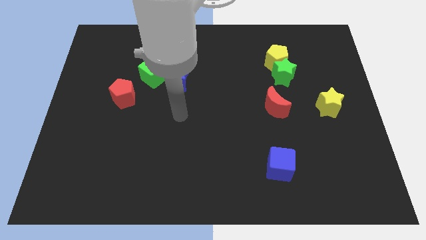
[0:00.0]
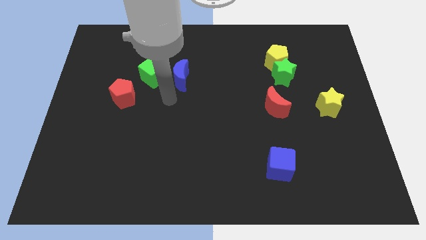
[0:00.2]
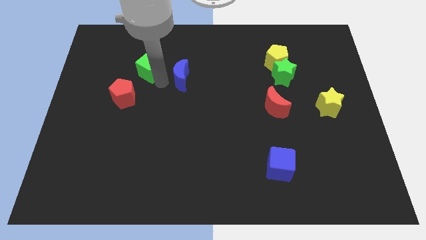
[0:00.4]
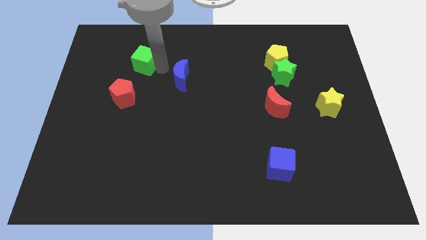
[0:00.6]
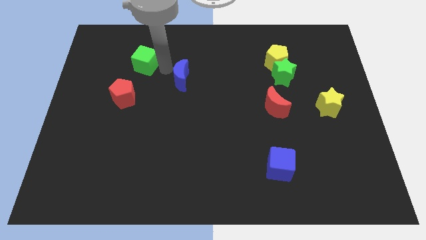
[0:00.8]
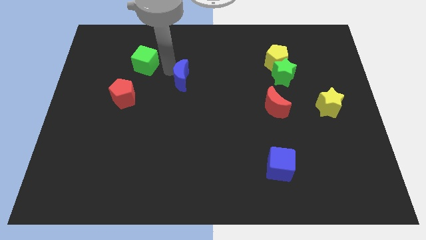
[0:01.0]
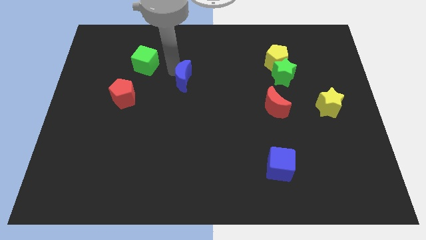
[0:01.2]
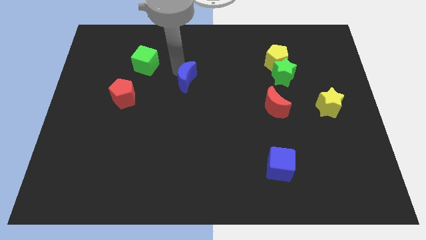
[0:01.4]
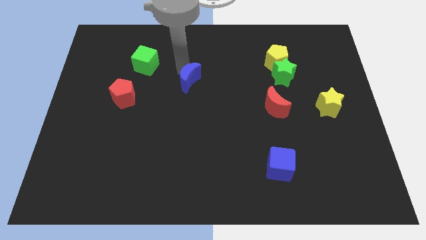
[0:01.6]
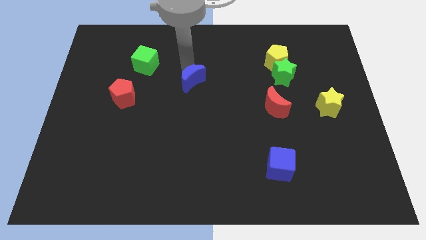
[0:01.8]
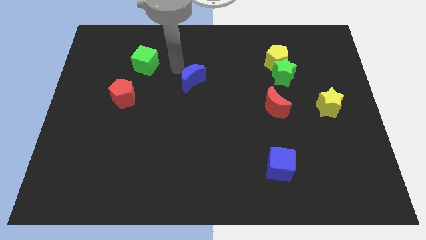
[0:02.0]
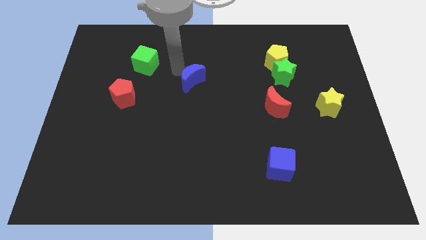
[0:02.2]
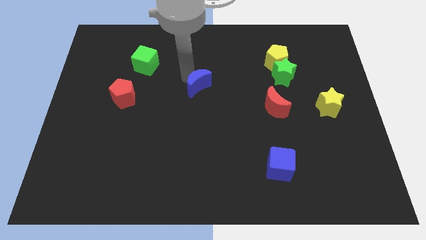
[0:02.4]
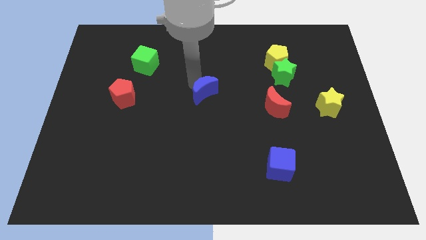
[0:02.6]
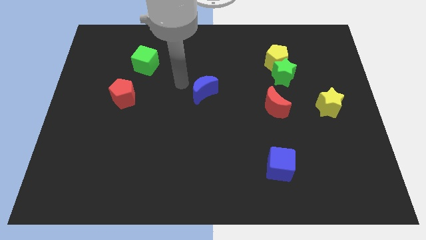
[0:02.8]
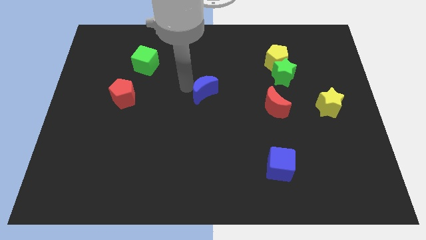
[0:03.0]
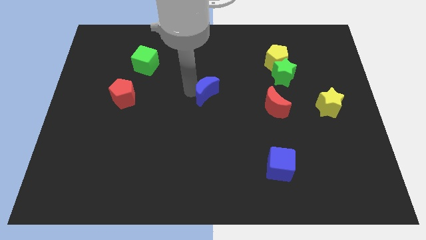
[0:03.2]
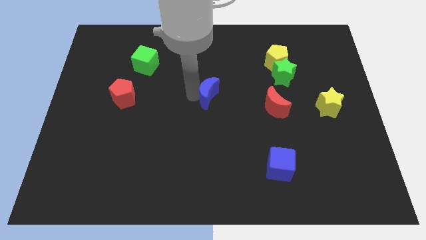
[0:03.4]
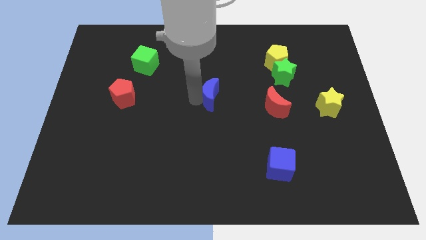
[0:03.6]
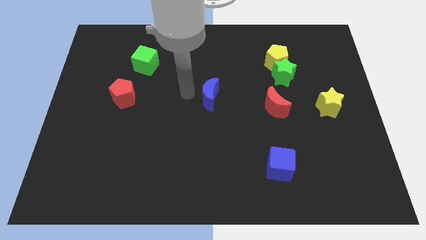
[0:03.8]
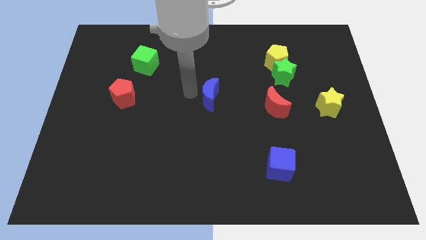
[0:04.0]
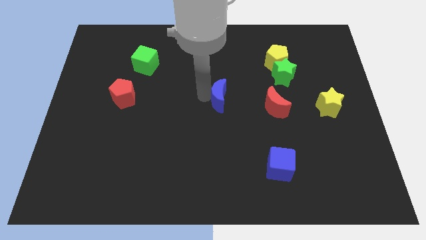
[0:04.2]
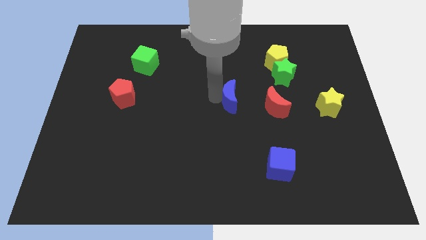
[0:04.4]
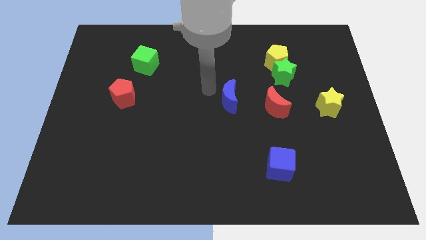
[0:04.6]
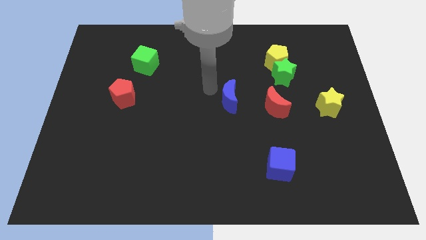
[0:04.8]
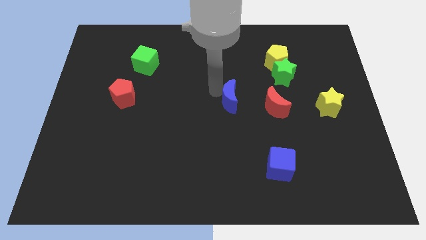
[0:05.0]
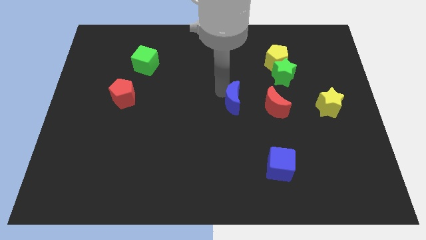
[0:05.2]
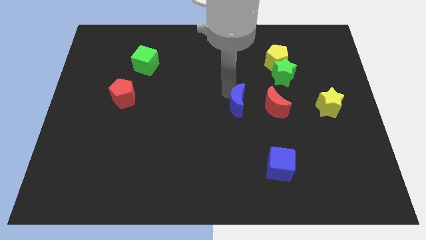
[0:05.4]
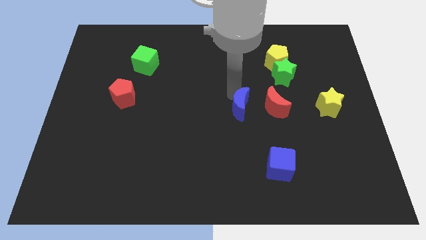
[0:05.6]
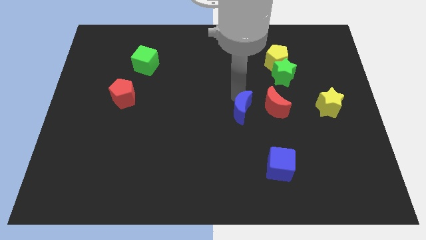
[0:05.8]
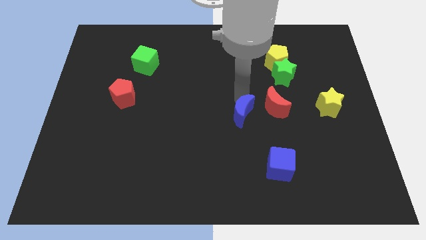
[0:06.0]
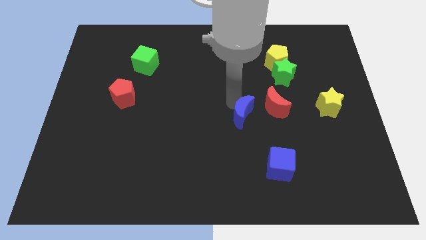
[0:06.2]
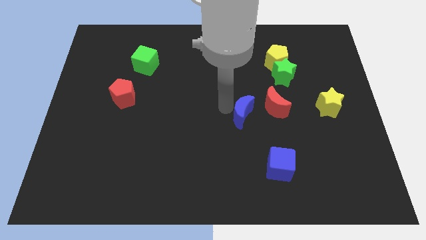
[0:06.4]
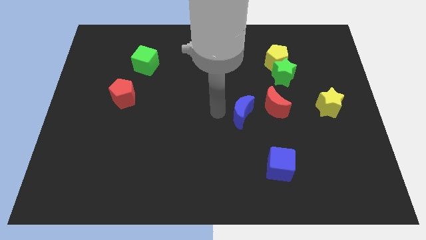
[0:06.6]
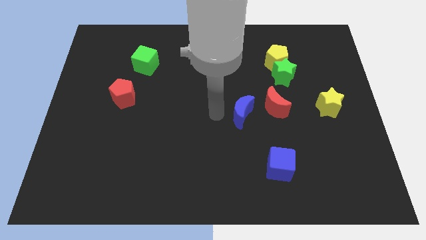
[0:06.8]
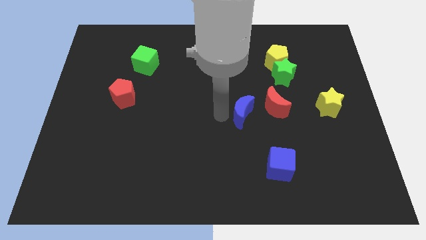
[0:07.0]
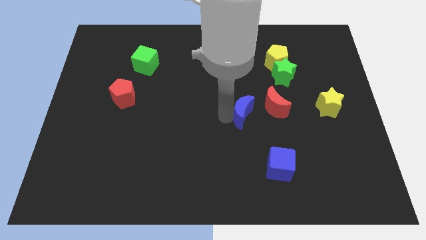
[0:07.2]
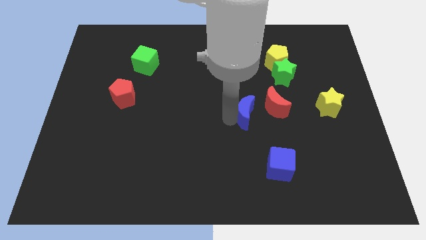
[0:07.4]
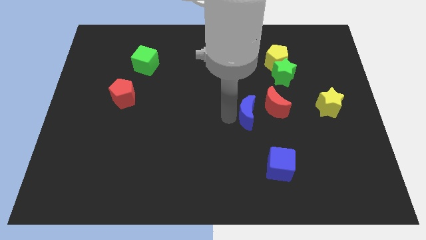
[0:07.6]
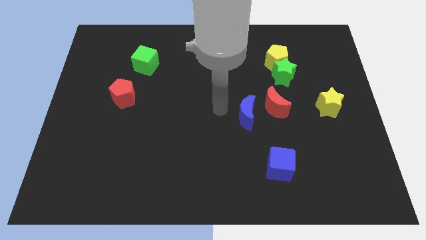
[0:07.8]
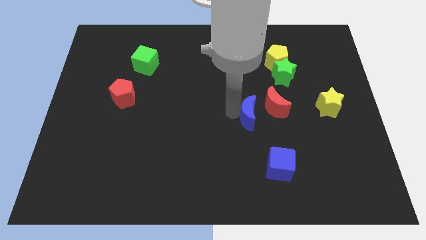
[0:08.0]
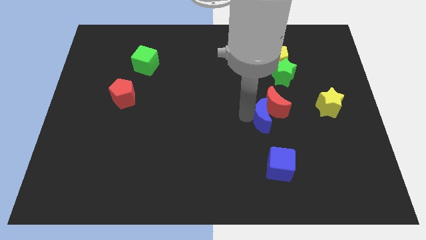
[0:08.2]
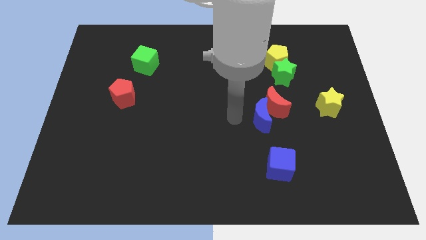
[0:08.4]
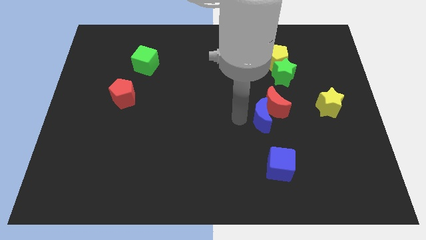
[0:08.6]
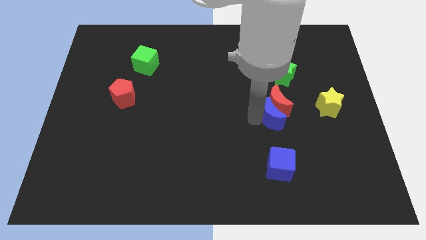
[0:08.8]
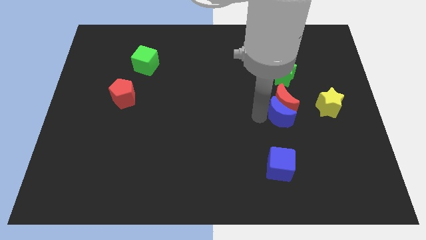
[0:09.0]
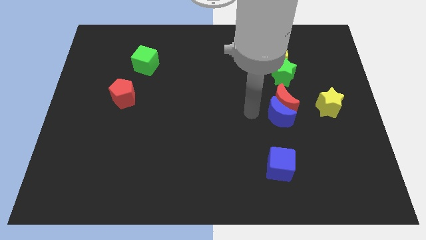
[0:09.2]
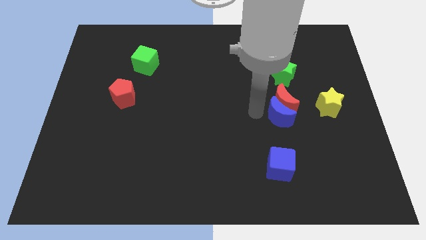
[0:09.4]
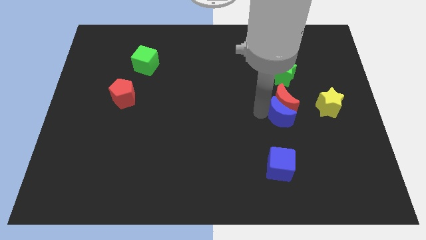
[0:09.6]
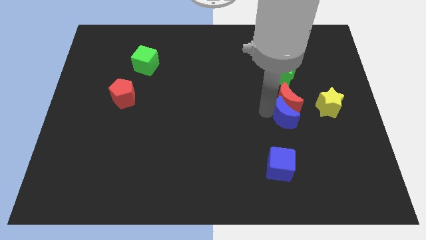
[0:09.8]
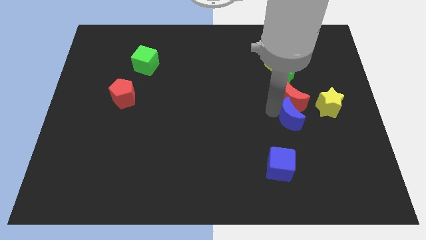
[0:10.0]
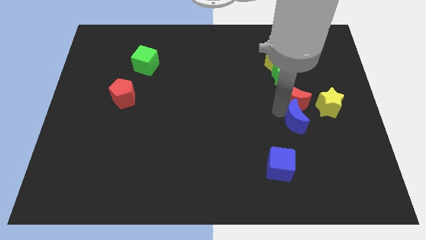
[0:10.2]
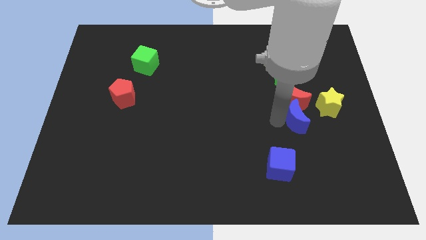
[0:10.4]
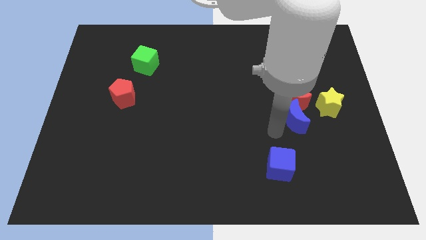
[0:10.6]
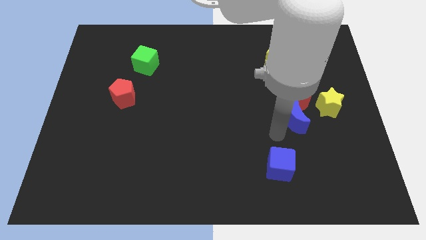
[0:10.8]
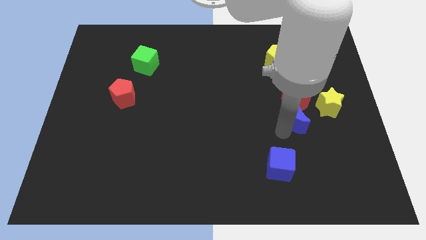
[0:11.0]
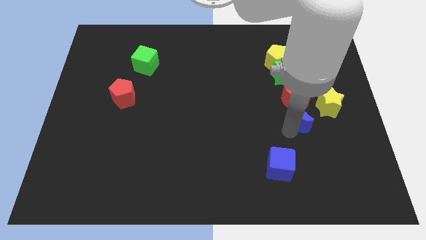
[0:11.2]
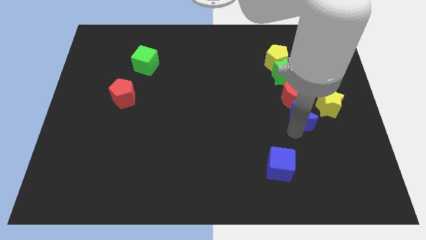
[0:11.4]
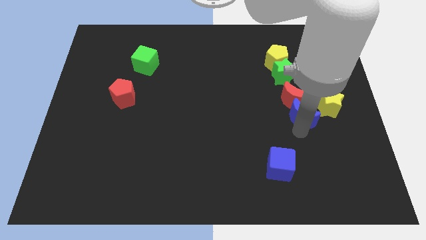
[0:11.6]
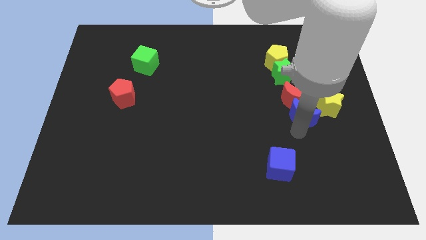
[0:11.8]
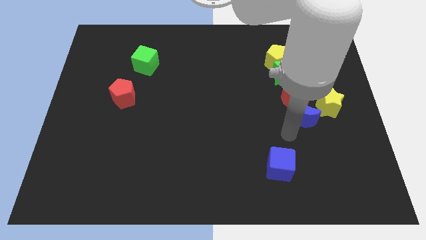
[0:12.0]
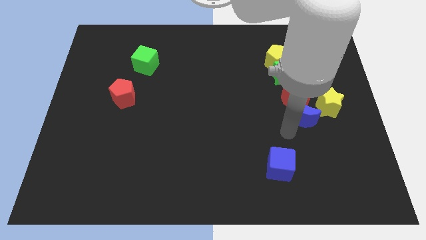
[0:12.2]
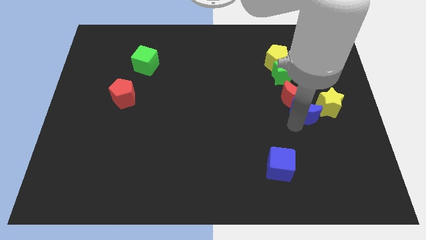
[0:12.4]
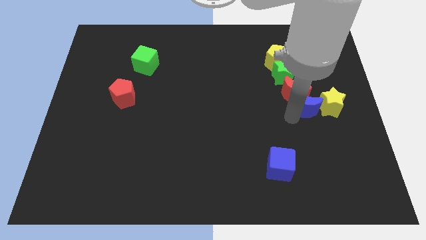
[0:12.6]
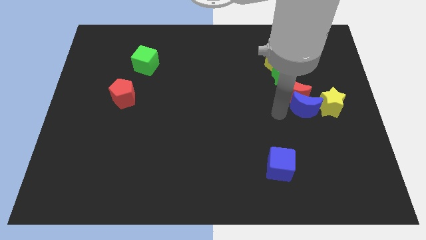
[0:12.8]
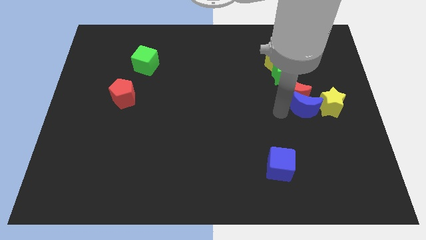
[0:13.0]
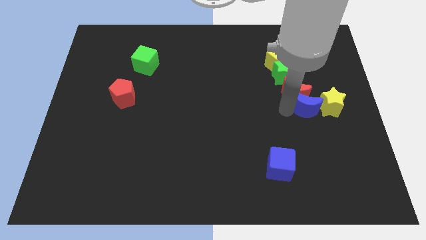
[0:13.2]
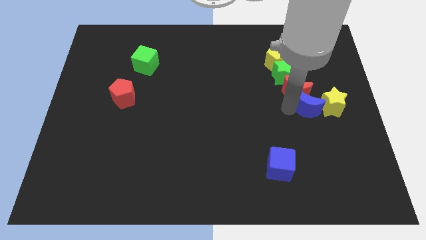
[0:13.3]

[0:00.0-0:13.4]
push the blue moon to the yellow star
